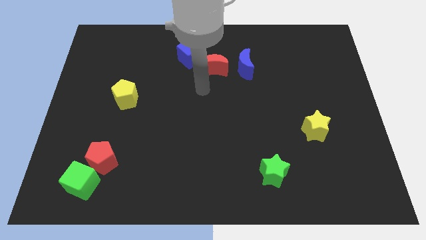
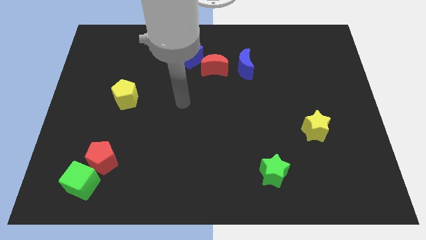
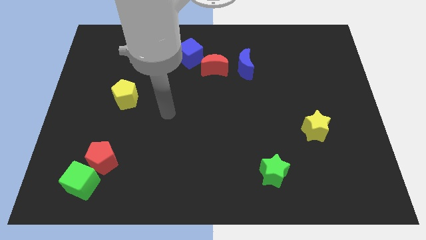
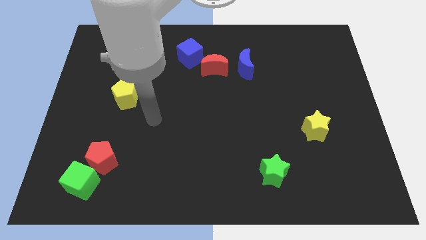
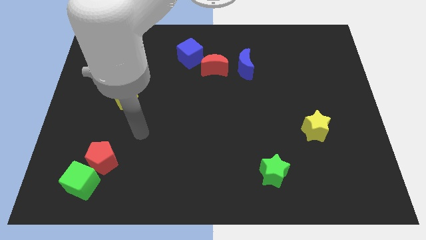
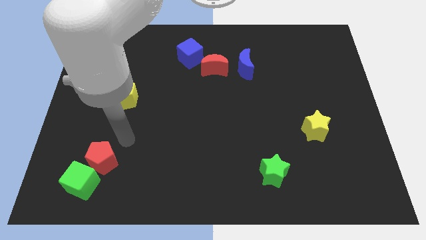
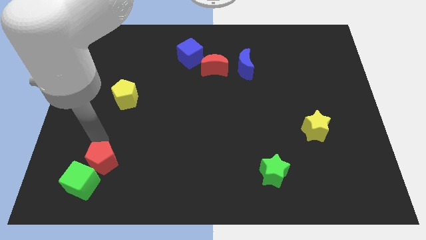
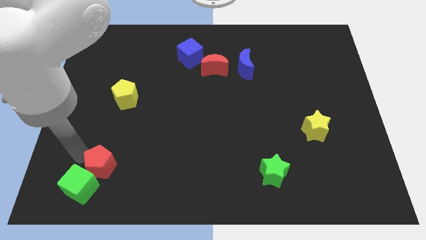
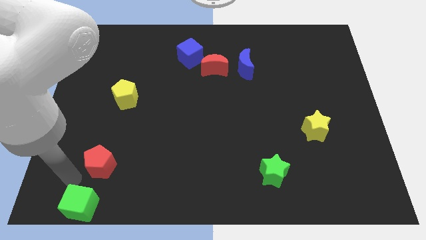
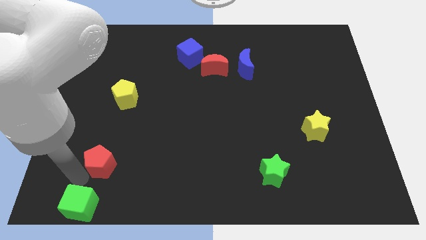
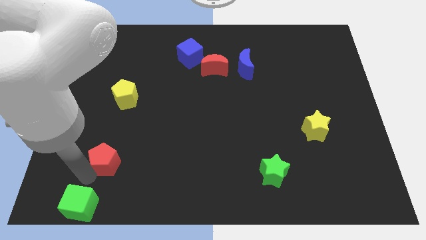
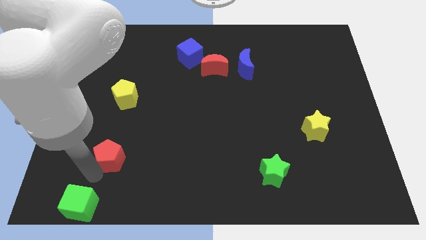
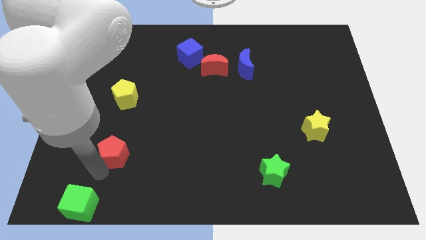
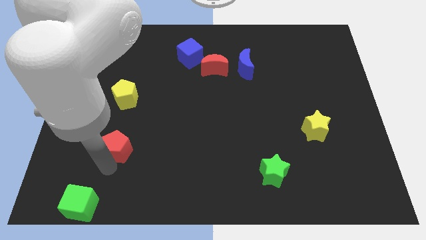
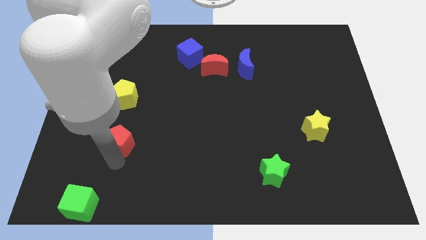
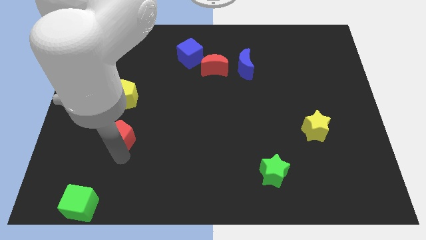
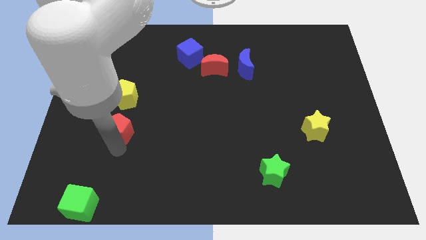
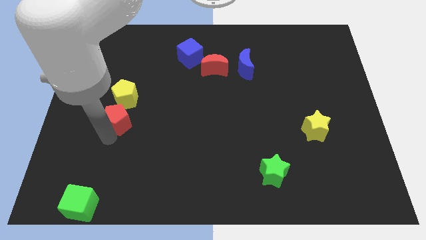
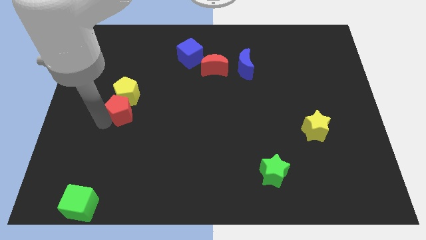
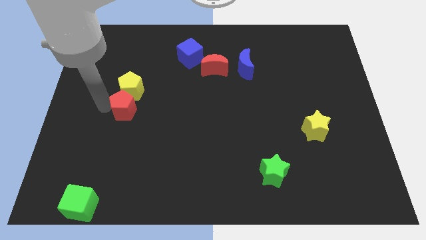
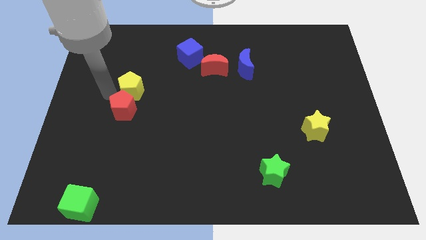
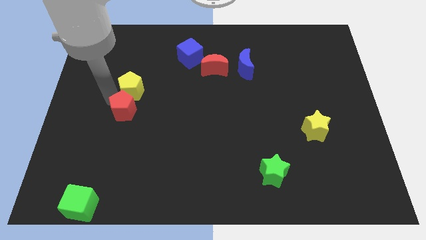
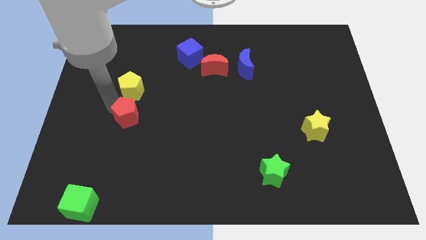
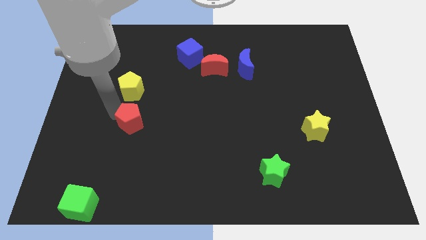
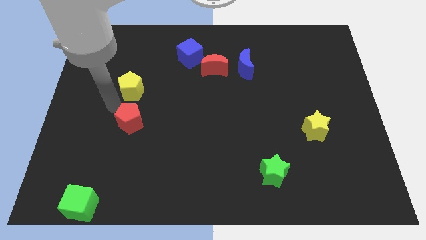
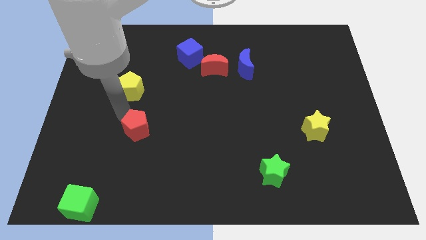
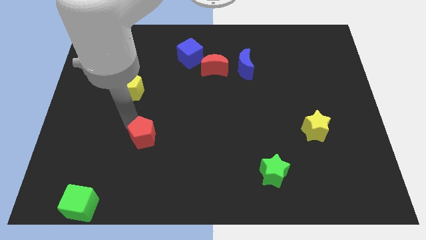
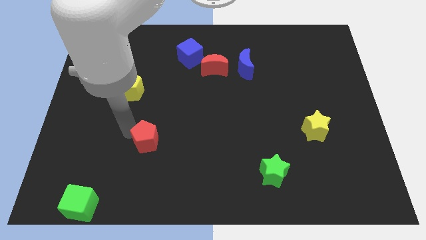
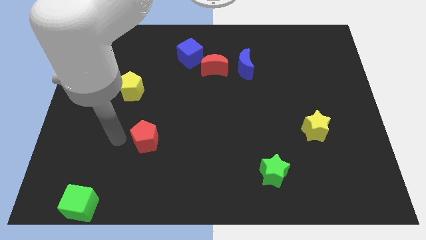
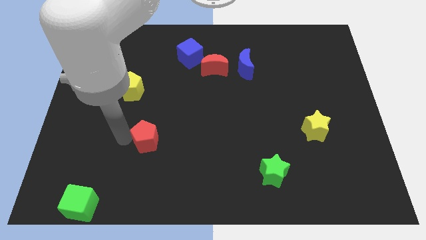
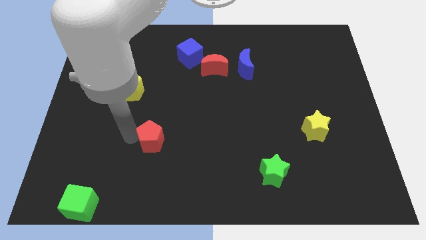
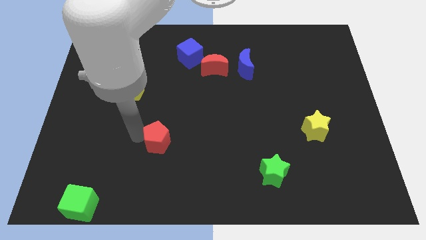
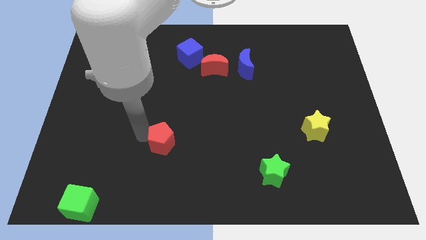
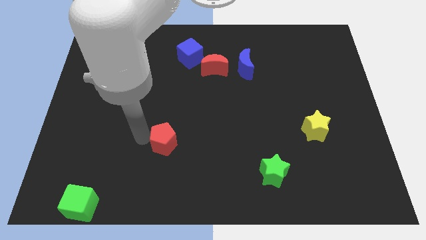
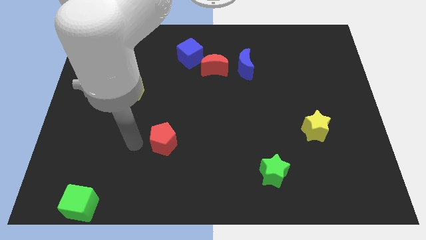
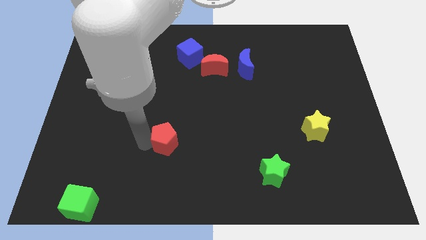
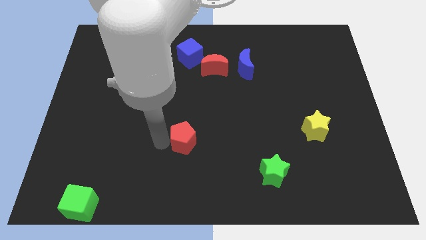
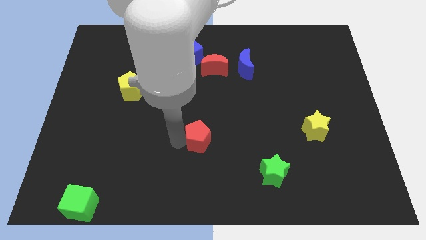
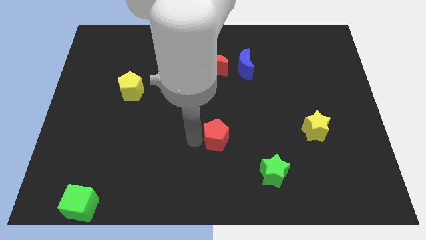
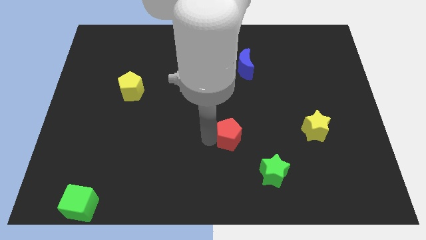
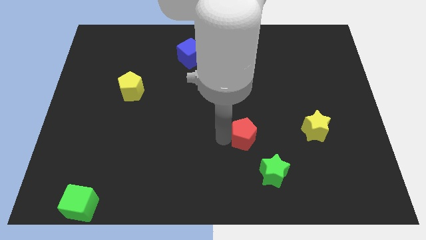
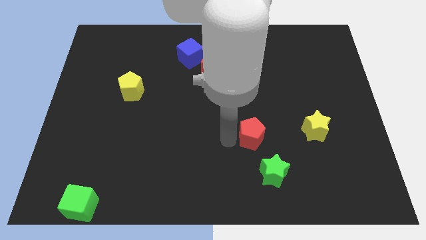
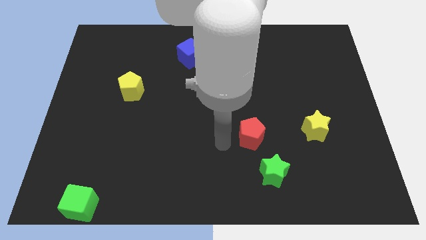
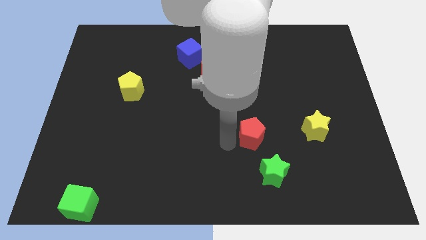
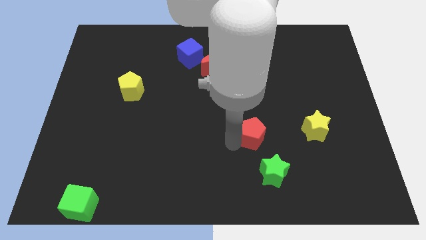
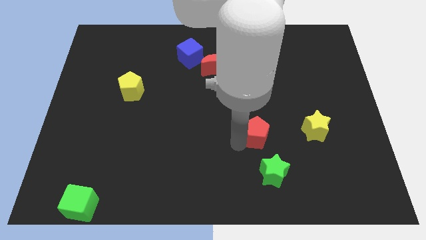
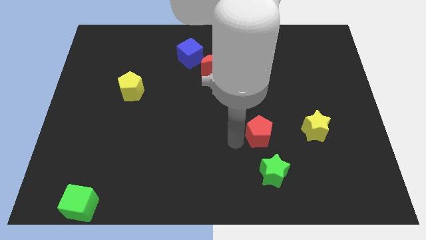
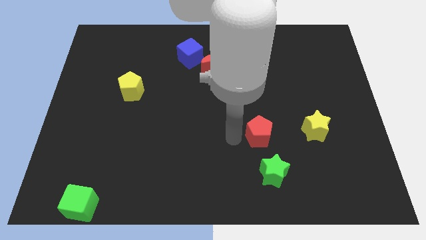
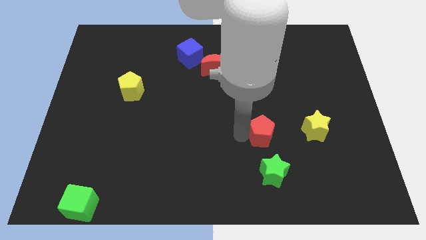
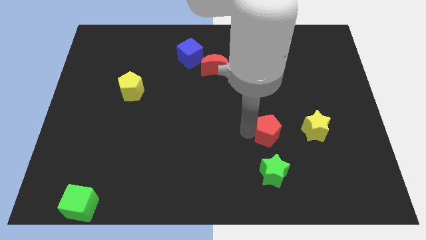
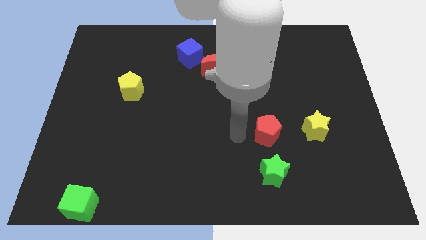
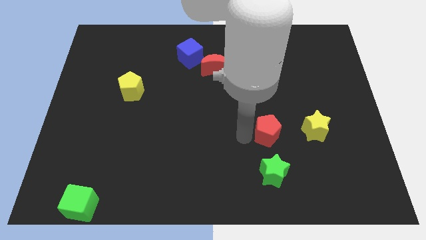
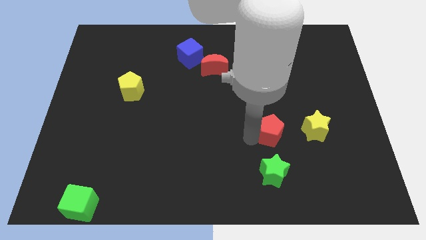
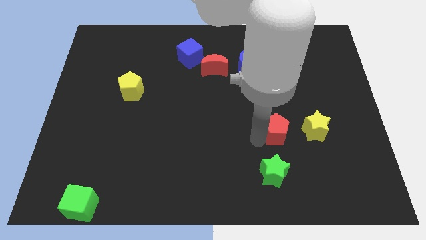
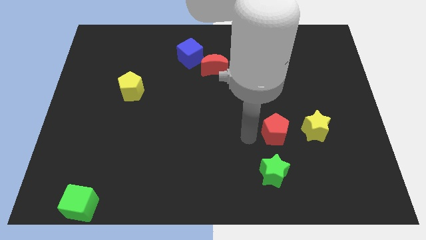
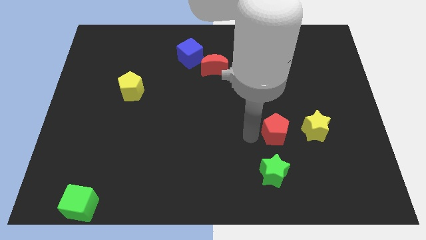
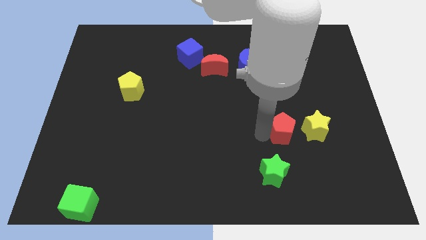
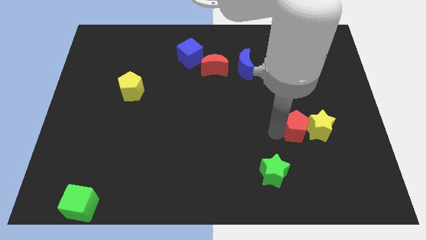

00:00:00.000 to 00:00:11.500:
move the red pentagon close to the yellow star

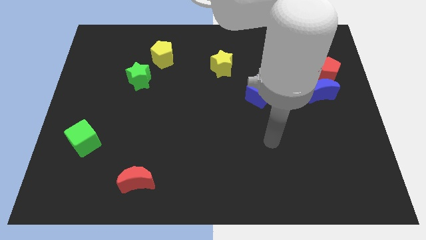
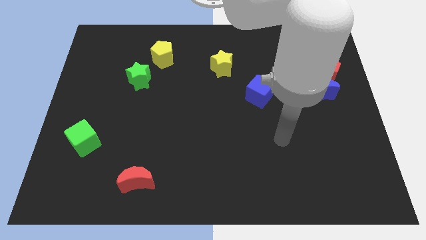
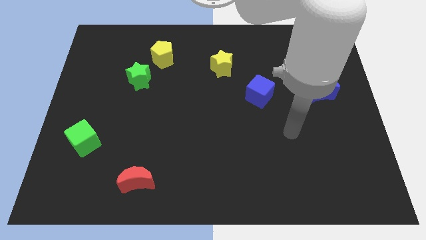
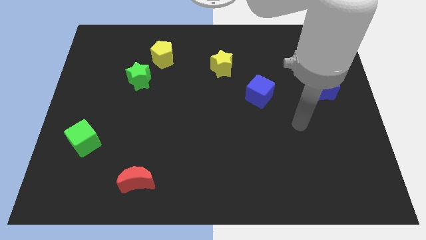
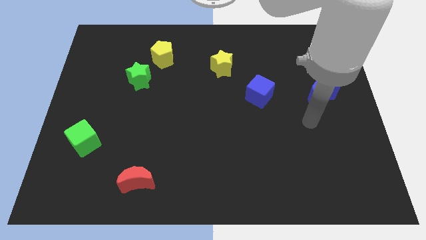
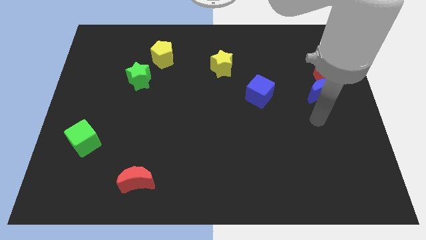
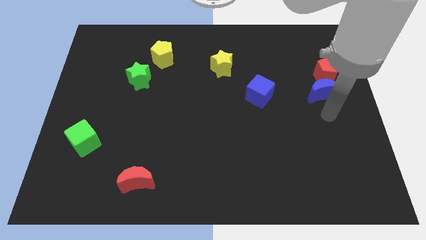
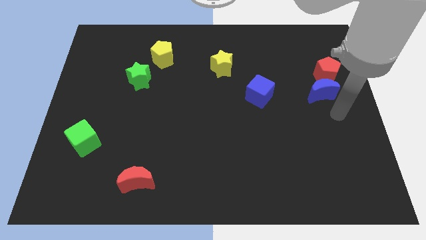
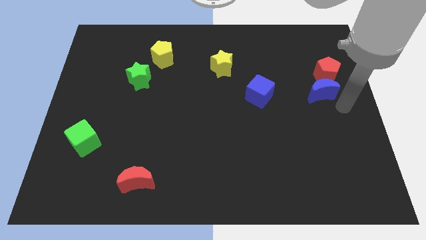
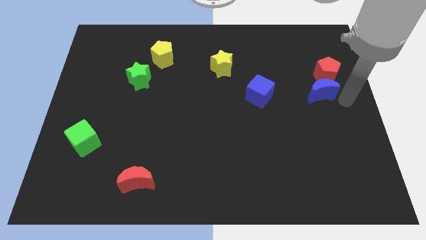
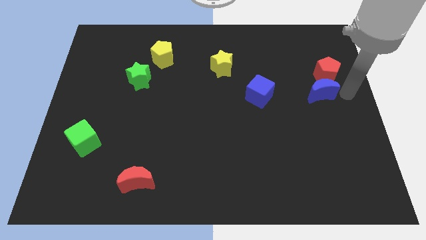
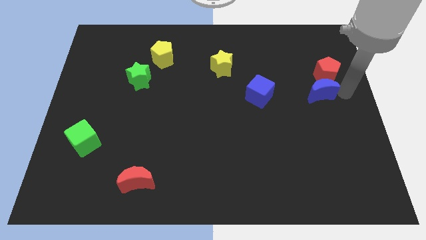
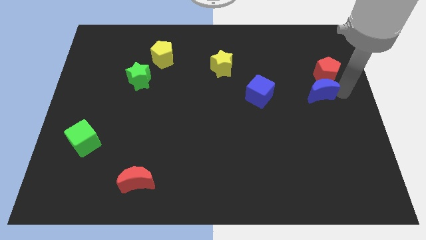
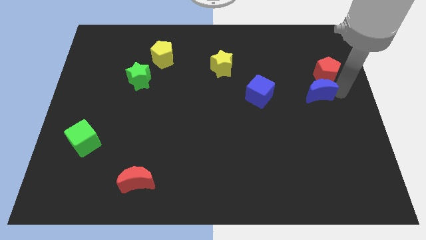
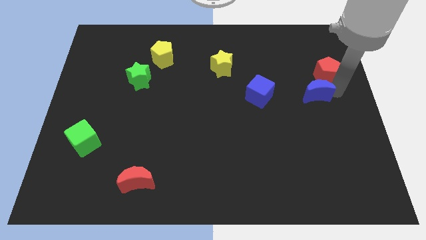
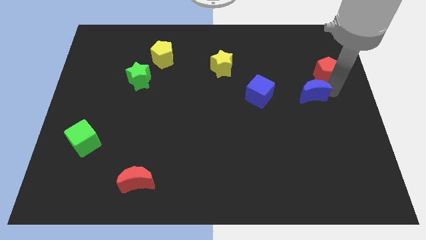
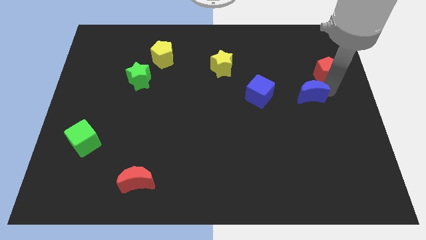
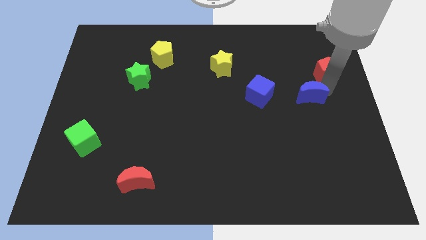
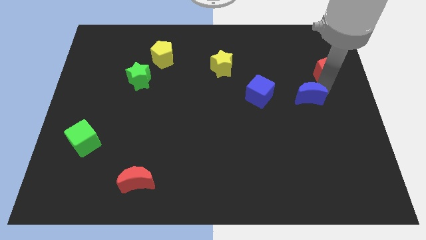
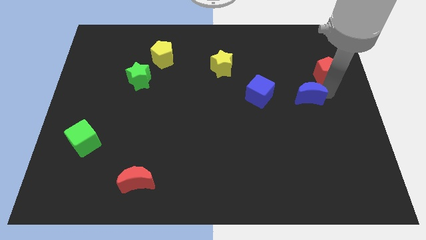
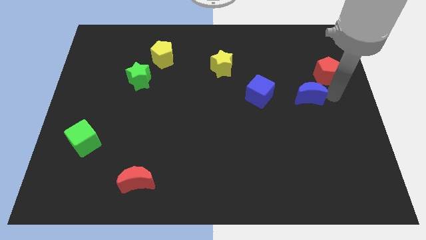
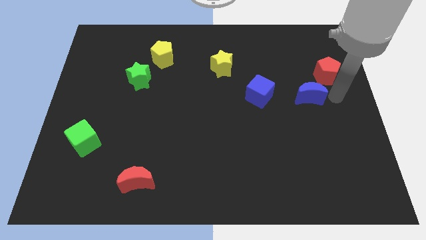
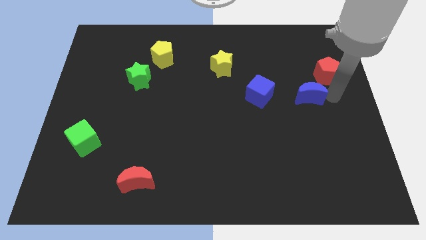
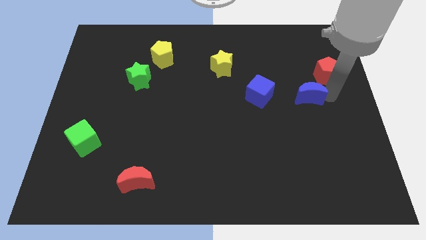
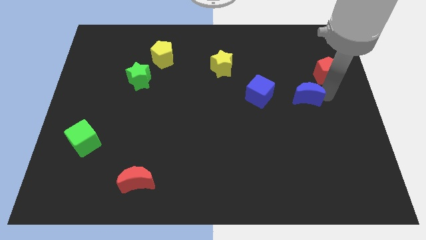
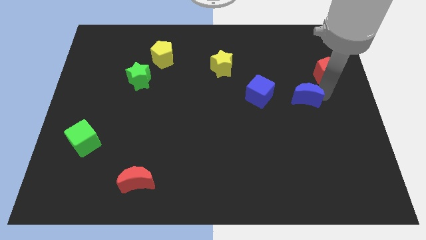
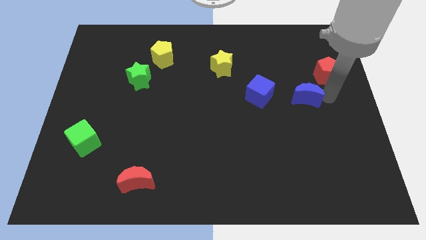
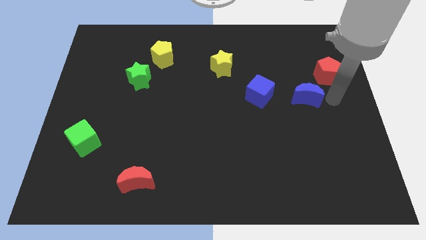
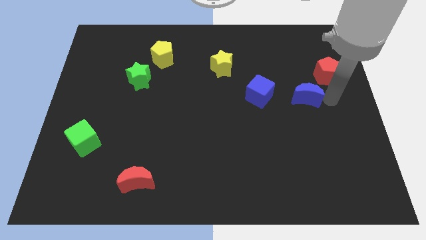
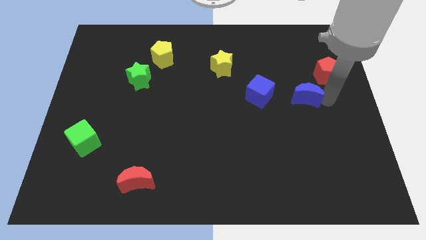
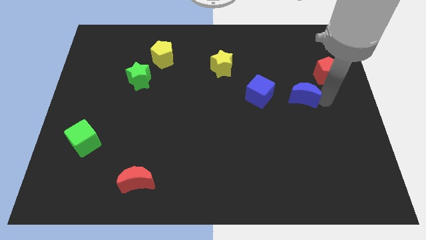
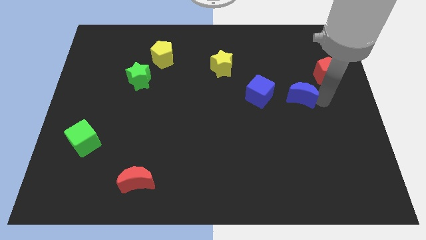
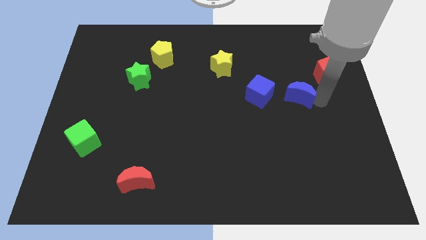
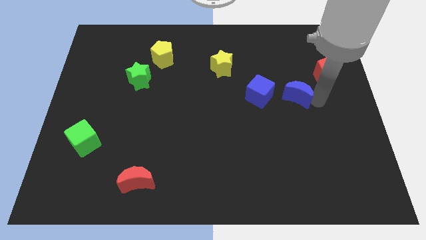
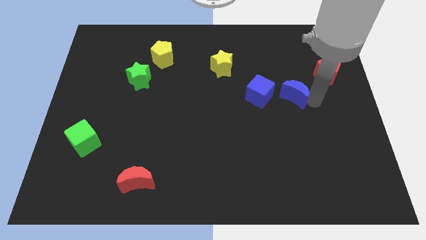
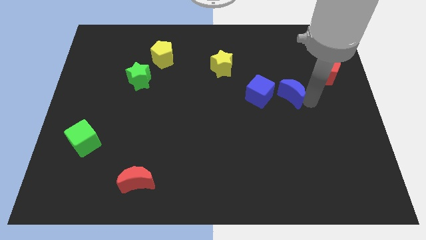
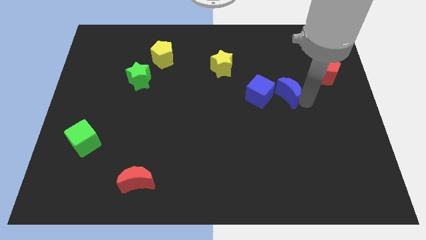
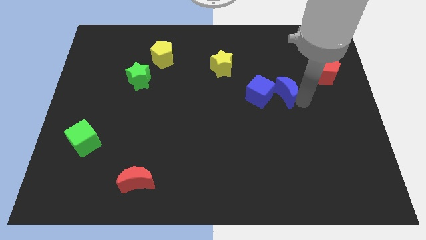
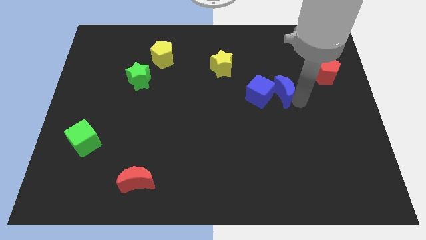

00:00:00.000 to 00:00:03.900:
push the blue moon next to the blue cube
